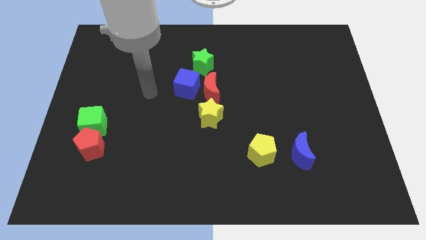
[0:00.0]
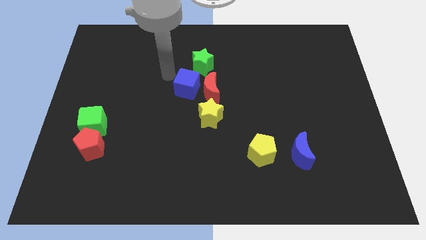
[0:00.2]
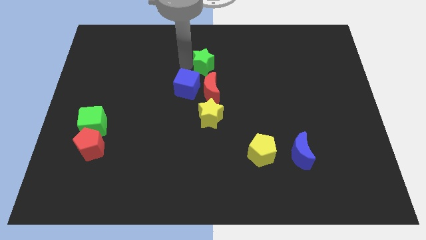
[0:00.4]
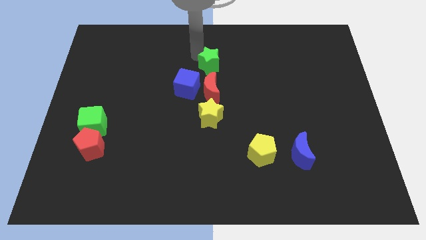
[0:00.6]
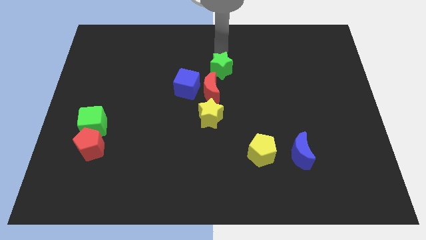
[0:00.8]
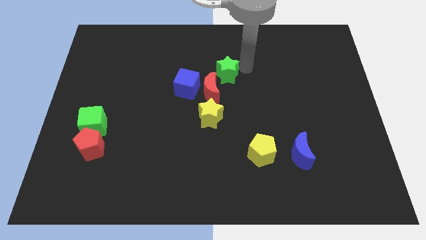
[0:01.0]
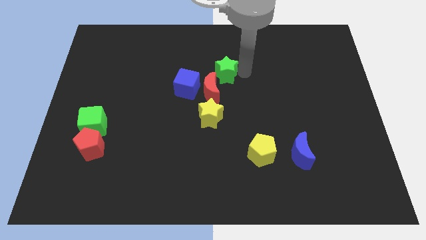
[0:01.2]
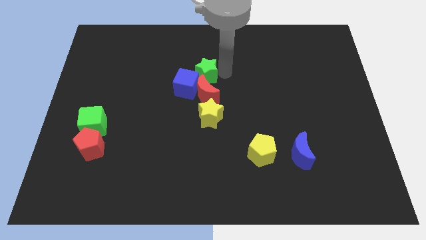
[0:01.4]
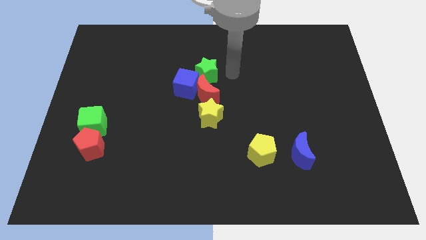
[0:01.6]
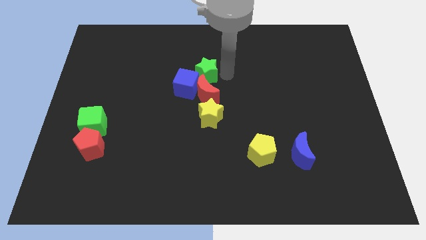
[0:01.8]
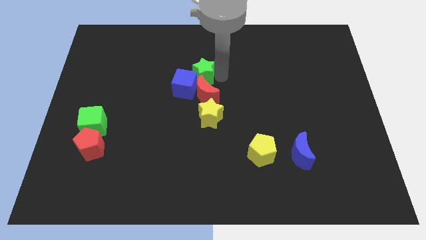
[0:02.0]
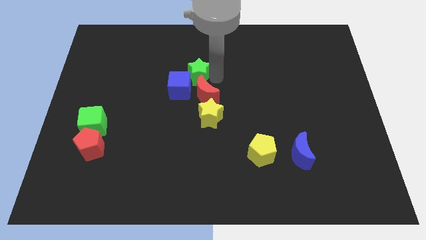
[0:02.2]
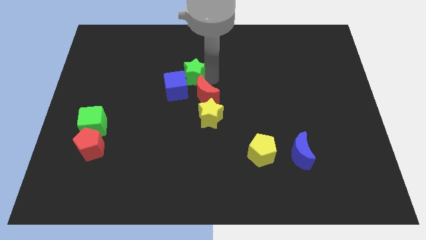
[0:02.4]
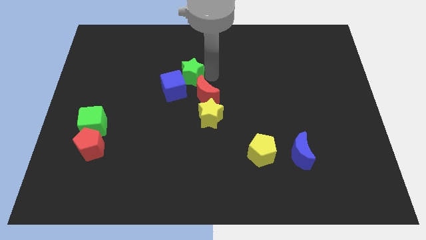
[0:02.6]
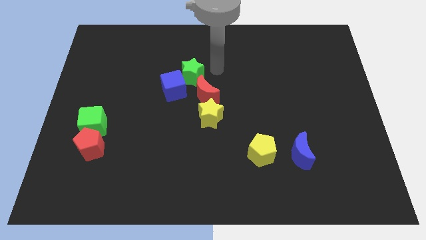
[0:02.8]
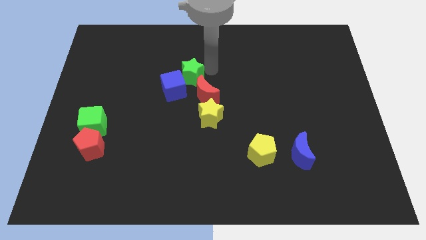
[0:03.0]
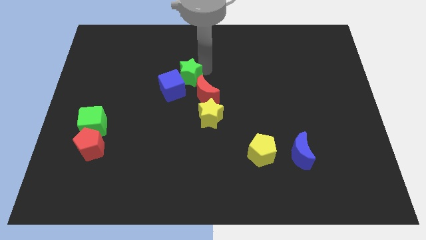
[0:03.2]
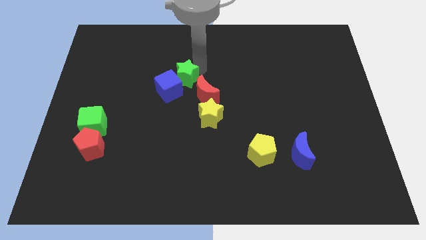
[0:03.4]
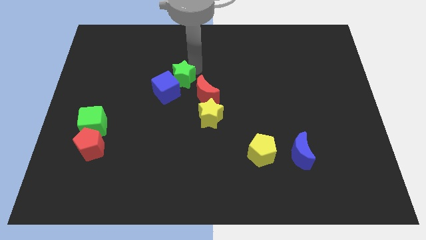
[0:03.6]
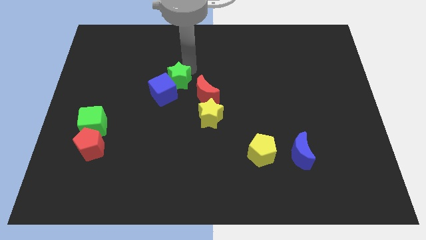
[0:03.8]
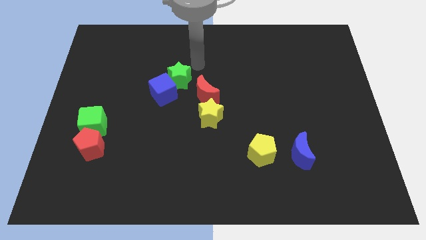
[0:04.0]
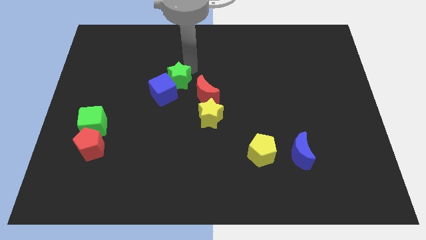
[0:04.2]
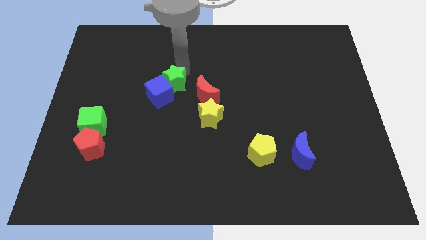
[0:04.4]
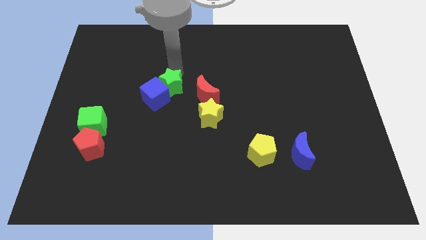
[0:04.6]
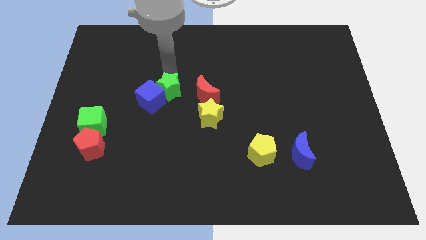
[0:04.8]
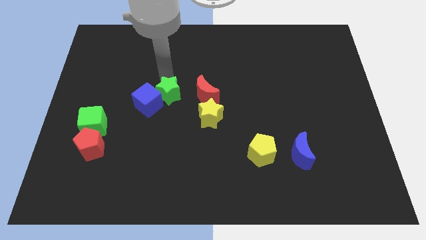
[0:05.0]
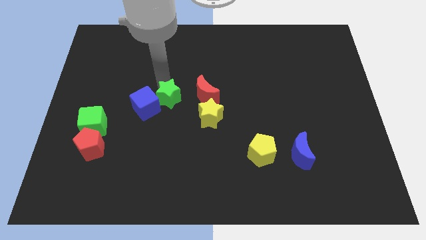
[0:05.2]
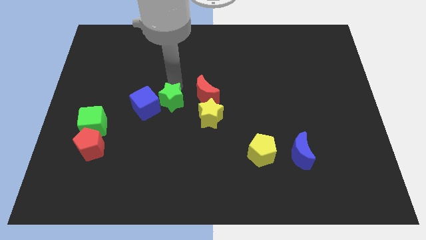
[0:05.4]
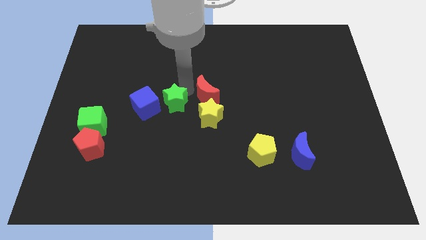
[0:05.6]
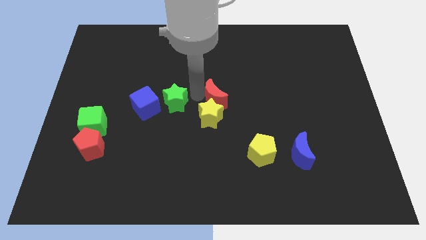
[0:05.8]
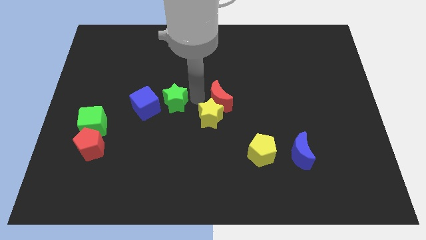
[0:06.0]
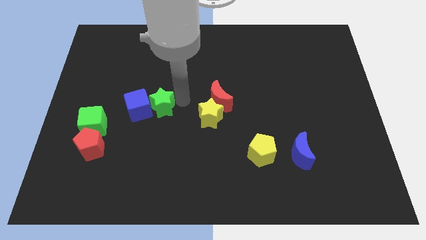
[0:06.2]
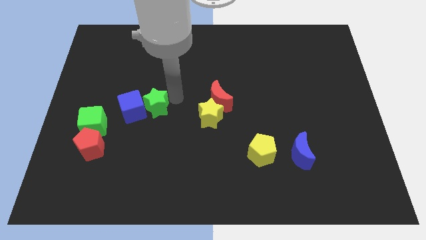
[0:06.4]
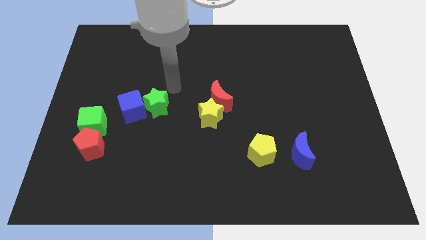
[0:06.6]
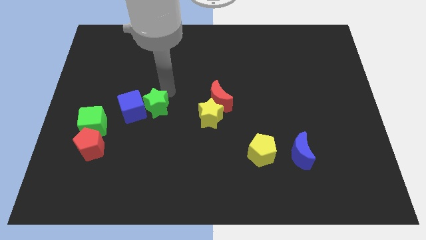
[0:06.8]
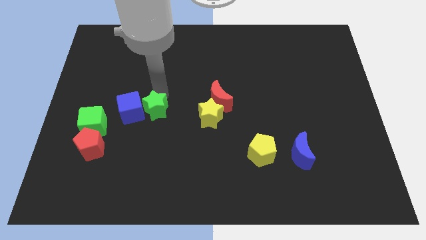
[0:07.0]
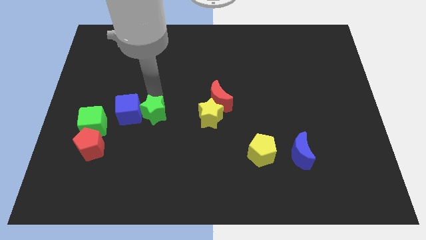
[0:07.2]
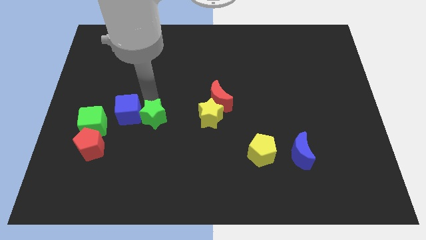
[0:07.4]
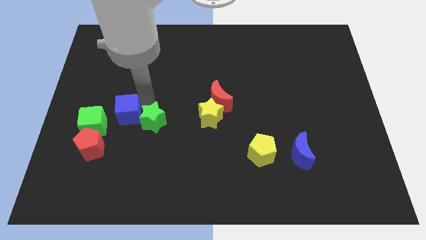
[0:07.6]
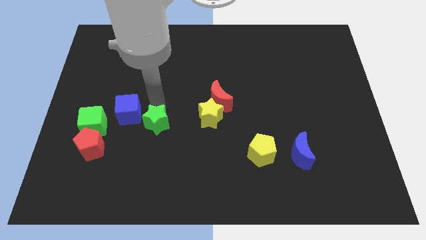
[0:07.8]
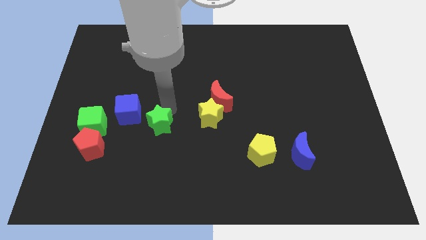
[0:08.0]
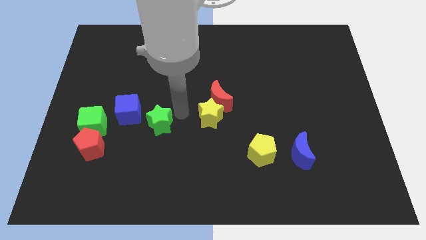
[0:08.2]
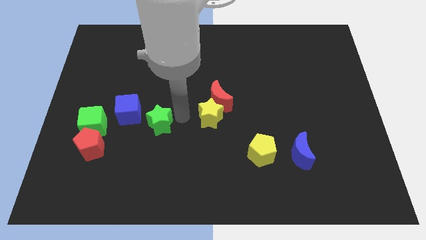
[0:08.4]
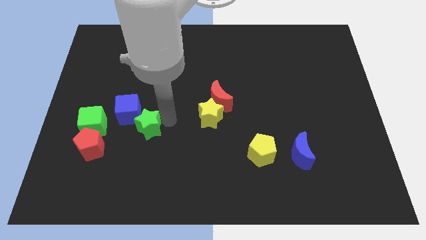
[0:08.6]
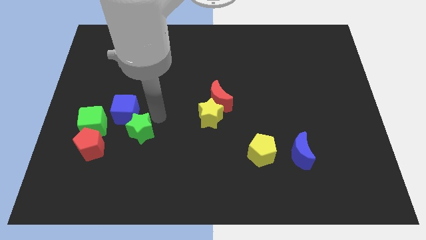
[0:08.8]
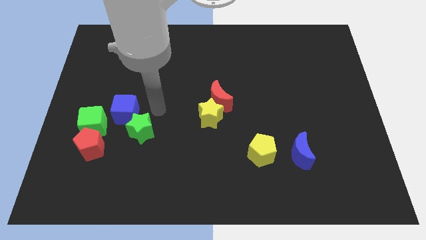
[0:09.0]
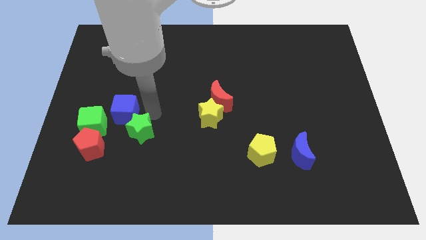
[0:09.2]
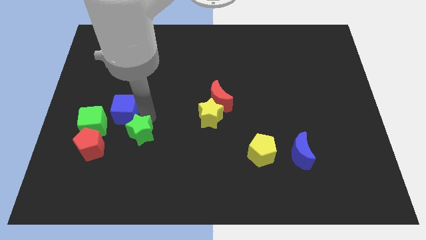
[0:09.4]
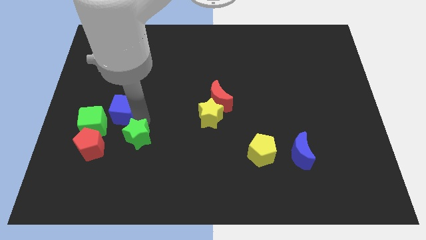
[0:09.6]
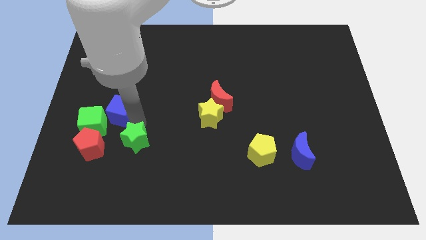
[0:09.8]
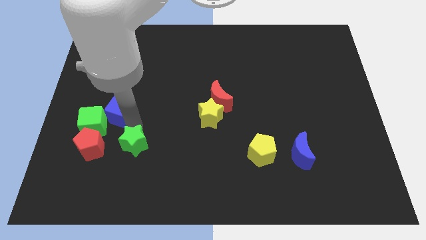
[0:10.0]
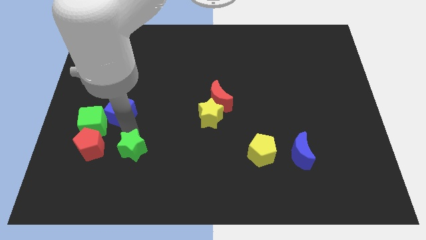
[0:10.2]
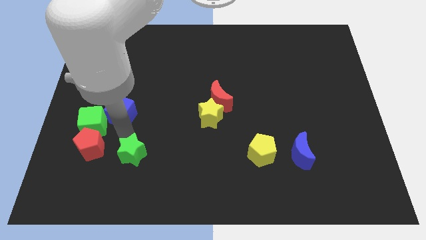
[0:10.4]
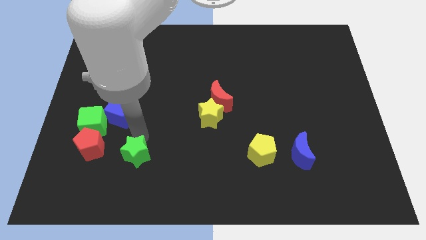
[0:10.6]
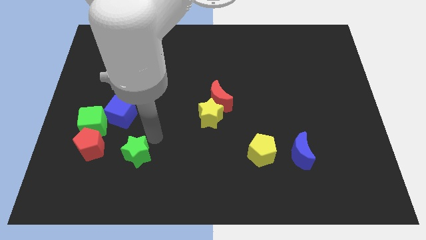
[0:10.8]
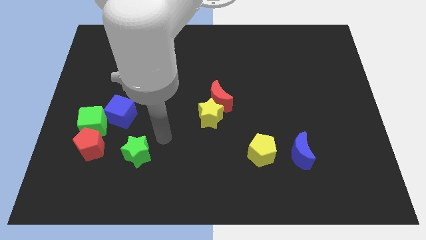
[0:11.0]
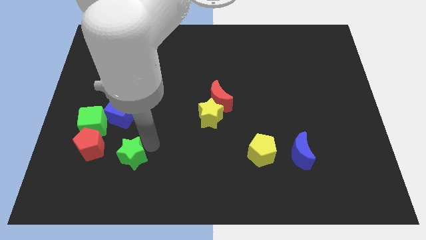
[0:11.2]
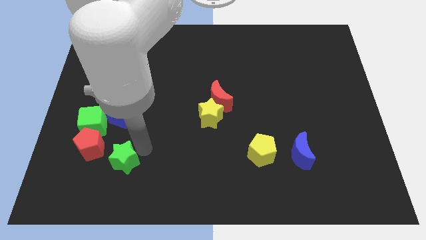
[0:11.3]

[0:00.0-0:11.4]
slide the green star diagonally down and to the right of the red pentagon

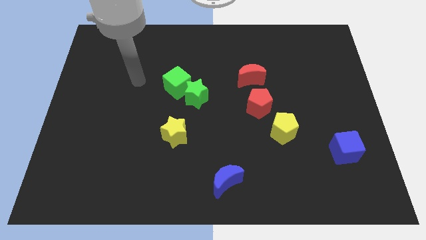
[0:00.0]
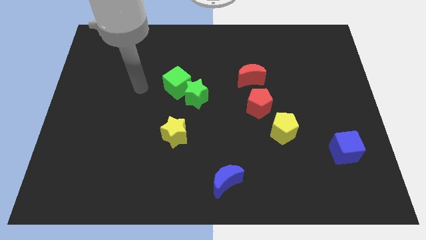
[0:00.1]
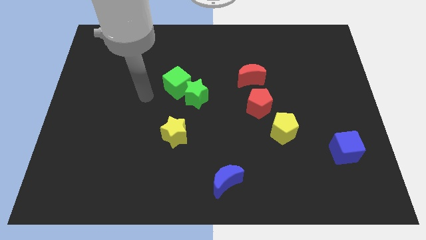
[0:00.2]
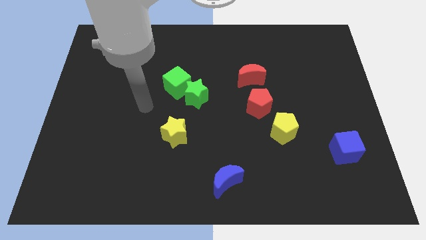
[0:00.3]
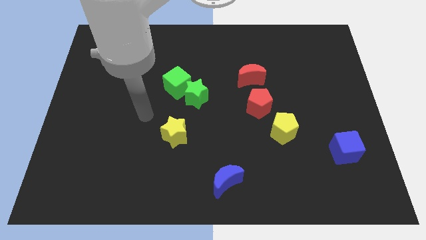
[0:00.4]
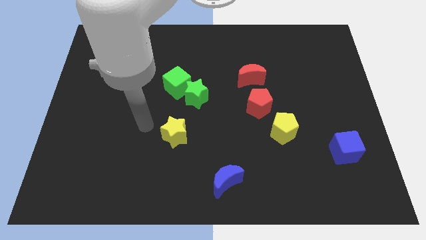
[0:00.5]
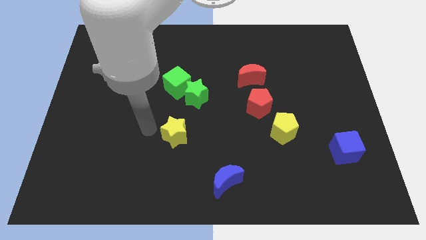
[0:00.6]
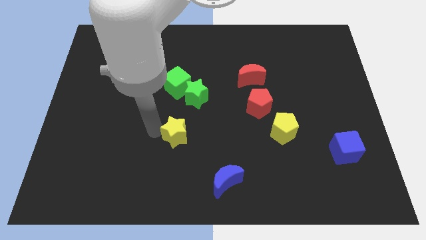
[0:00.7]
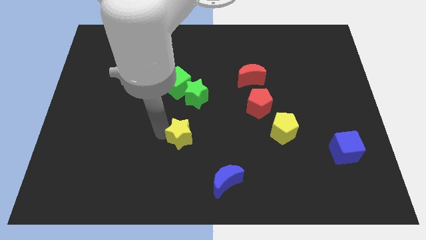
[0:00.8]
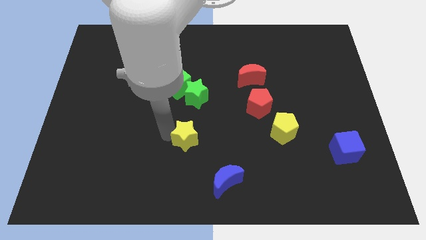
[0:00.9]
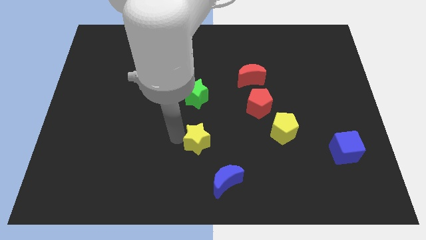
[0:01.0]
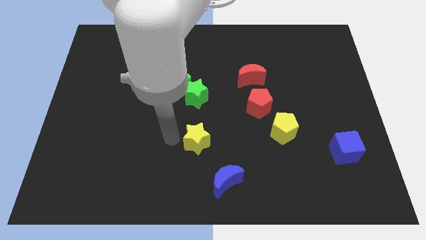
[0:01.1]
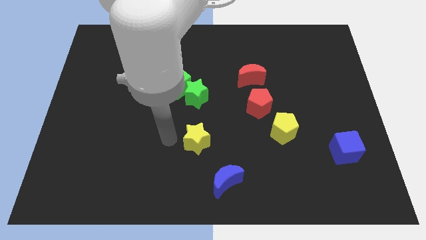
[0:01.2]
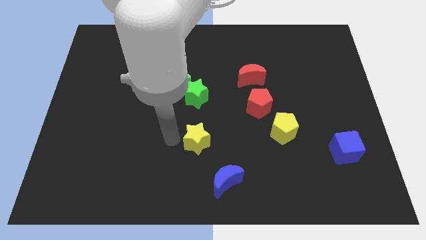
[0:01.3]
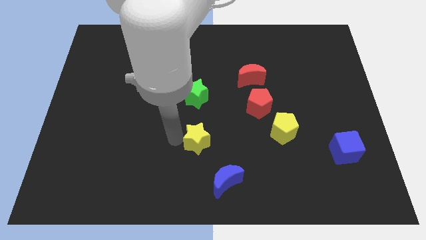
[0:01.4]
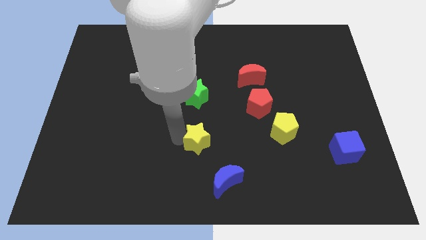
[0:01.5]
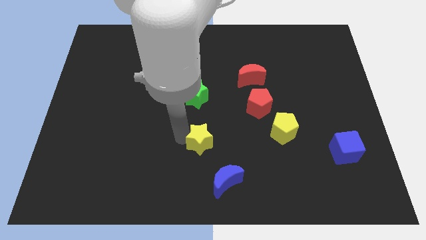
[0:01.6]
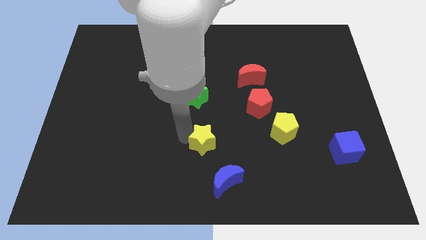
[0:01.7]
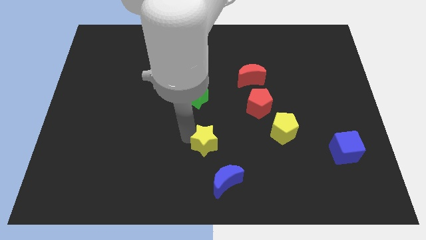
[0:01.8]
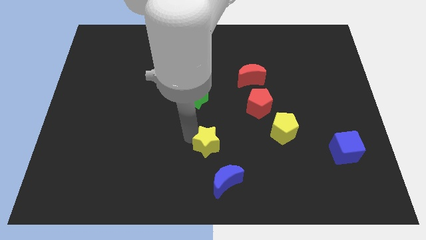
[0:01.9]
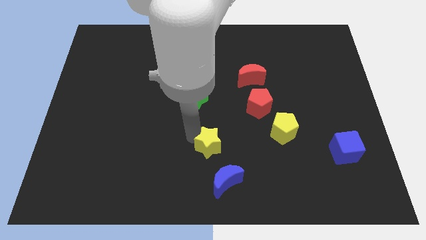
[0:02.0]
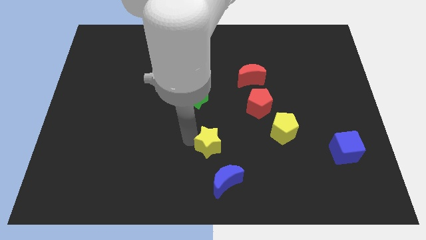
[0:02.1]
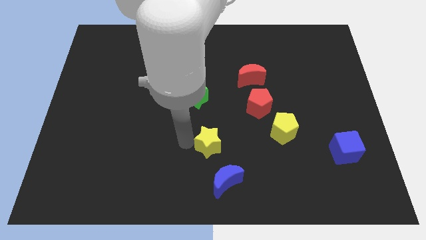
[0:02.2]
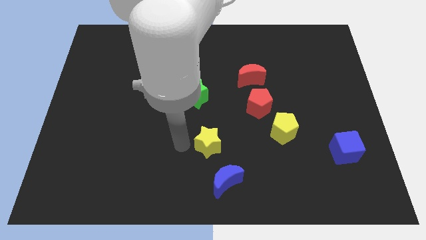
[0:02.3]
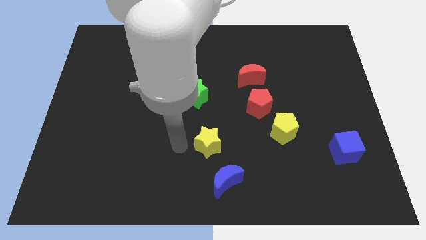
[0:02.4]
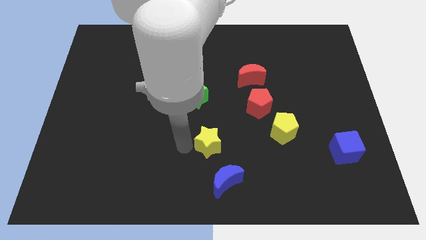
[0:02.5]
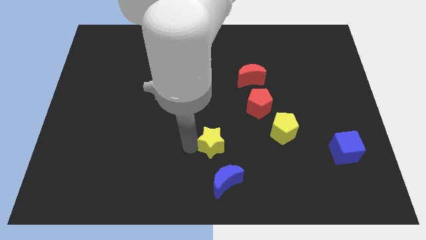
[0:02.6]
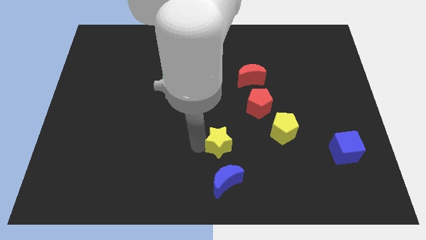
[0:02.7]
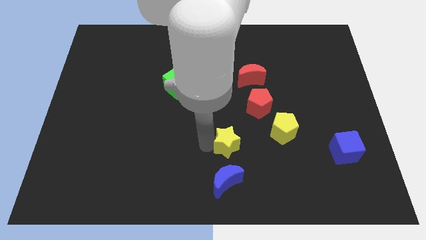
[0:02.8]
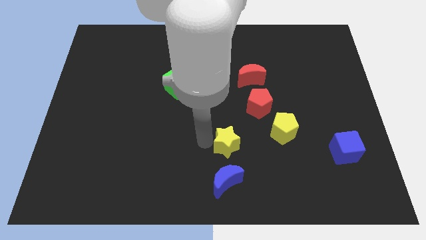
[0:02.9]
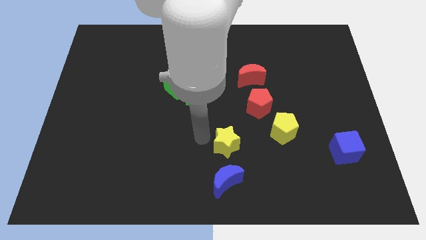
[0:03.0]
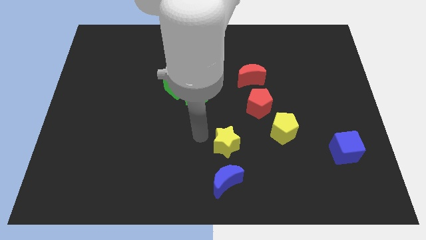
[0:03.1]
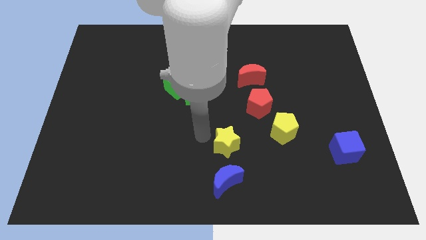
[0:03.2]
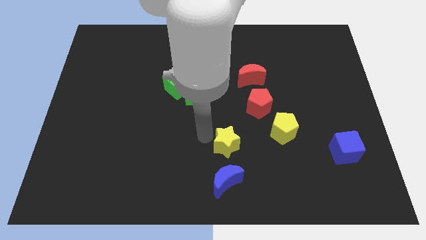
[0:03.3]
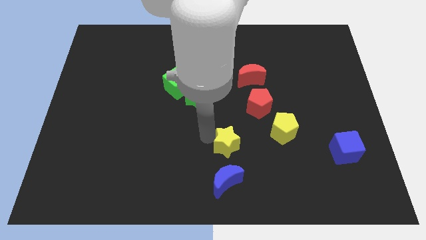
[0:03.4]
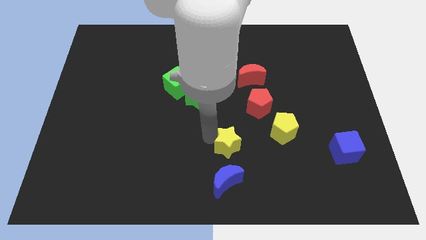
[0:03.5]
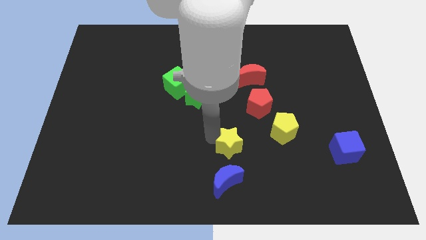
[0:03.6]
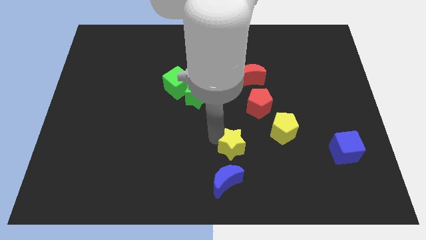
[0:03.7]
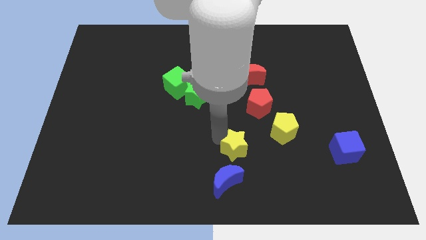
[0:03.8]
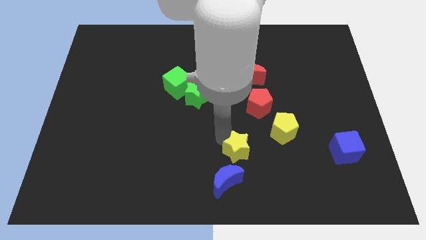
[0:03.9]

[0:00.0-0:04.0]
put the yellow star diagonally down and to the left of the yellow pentagon
